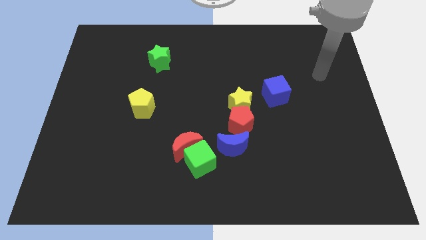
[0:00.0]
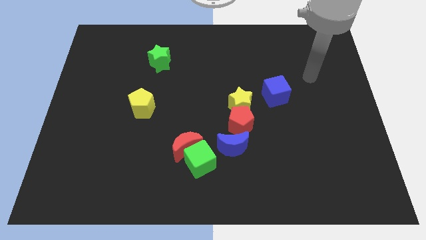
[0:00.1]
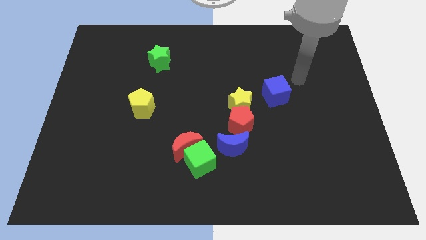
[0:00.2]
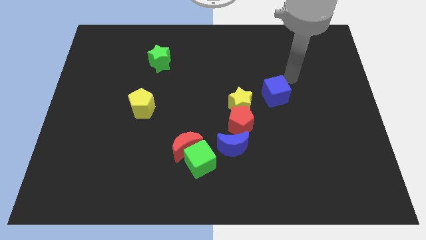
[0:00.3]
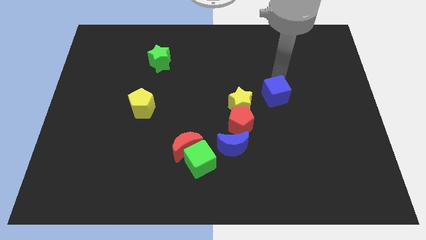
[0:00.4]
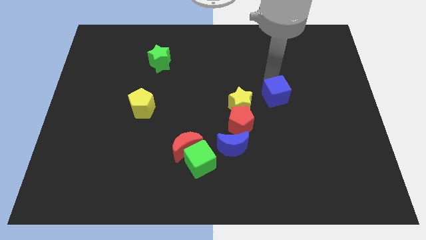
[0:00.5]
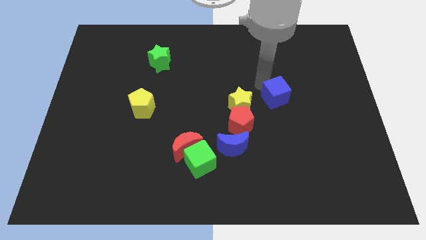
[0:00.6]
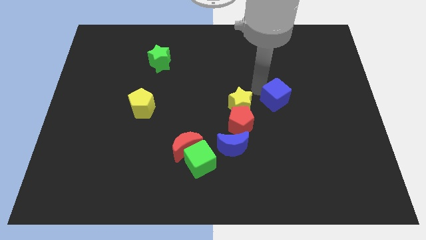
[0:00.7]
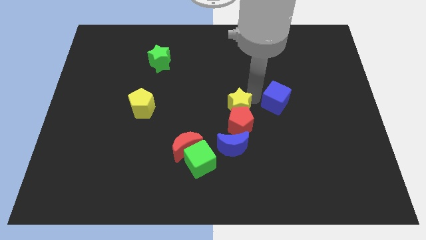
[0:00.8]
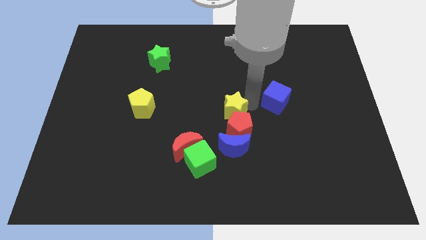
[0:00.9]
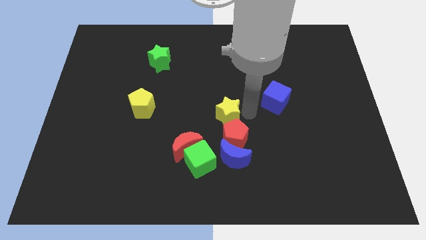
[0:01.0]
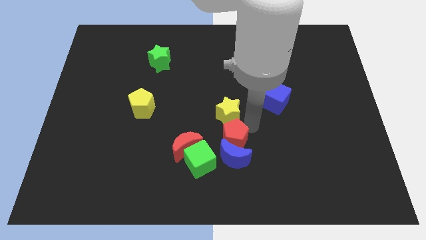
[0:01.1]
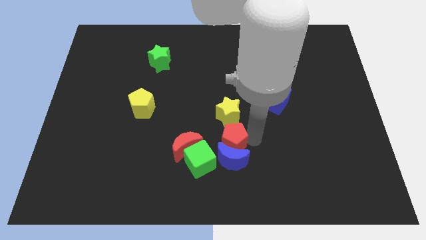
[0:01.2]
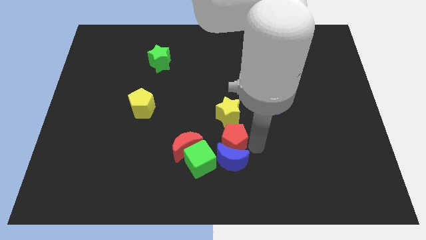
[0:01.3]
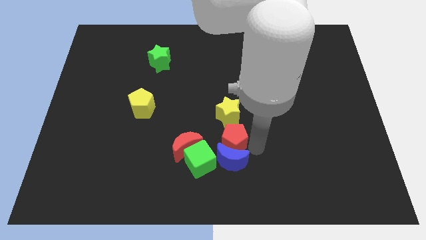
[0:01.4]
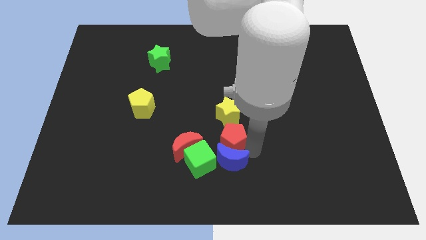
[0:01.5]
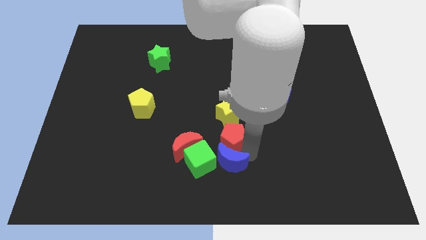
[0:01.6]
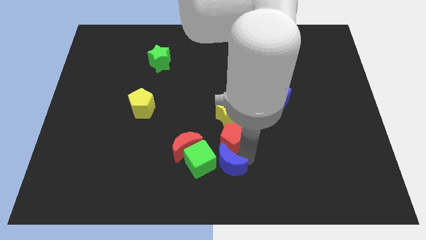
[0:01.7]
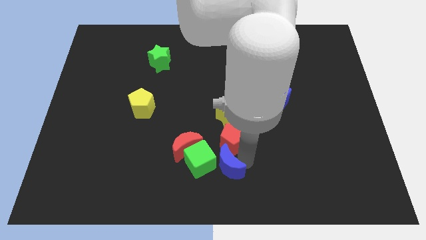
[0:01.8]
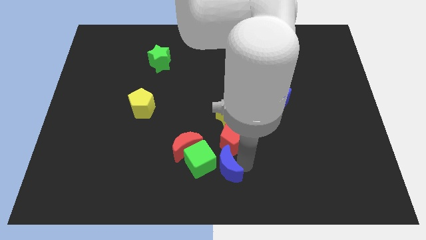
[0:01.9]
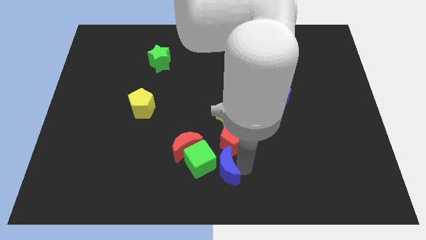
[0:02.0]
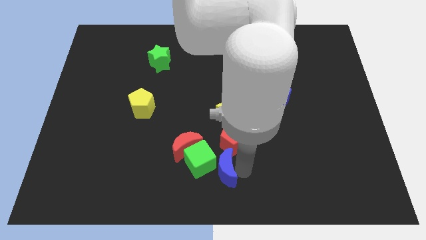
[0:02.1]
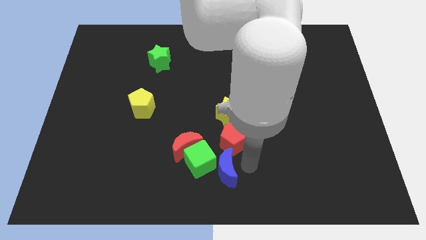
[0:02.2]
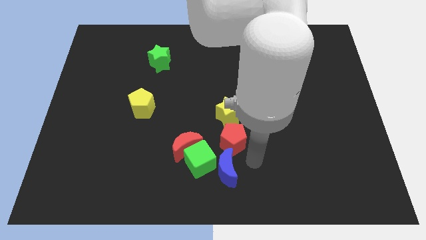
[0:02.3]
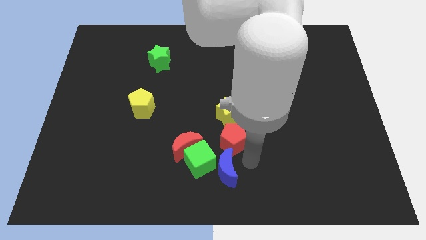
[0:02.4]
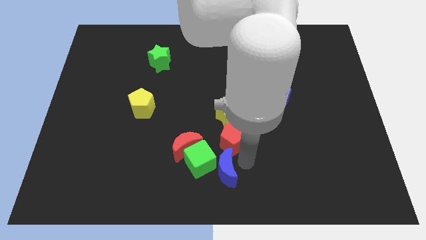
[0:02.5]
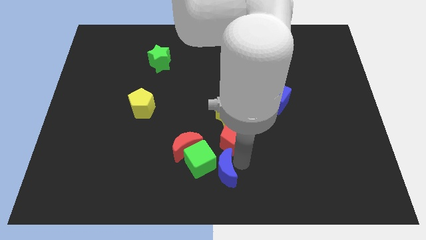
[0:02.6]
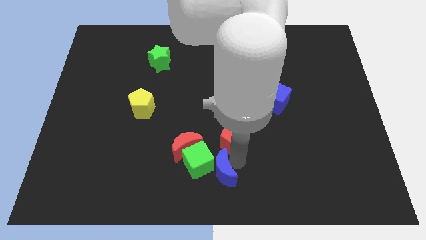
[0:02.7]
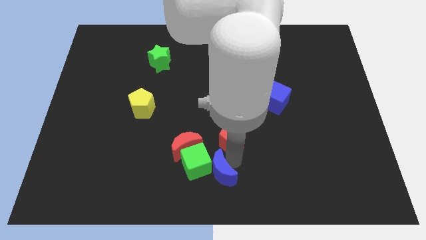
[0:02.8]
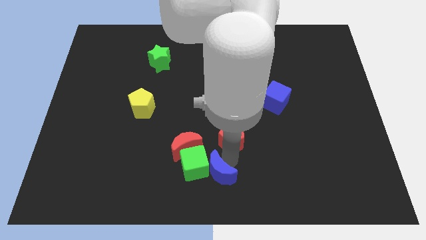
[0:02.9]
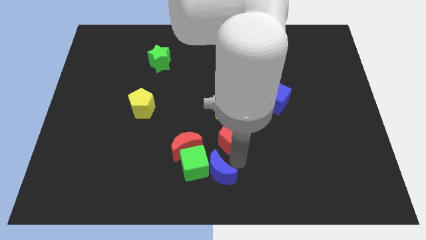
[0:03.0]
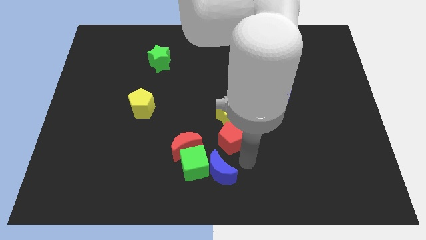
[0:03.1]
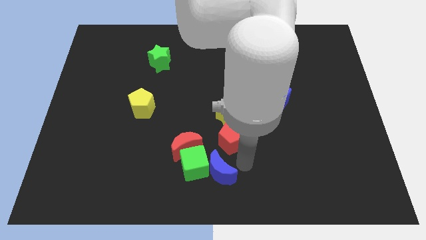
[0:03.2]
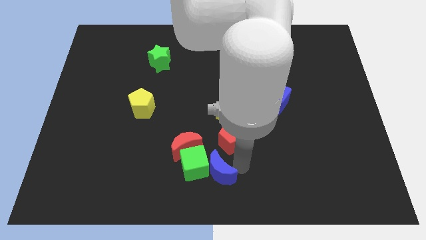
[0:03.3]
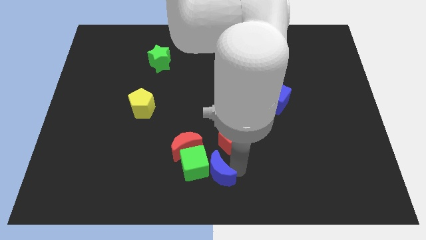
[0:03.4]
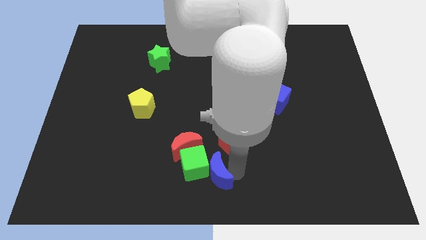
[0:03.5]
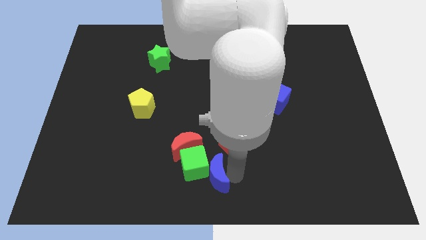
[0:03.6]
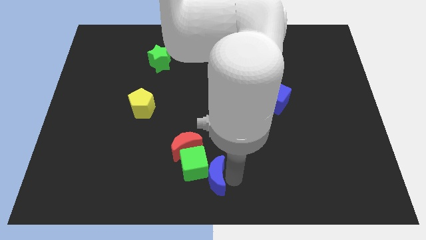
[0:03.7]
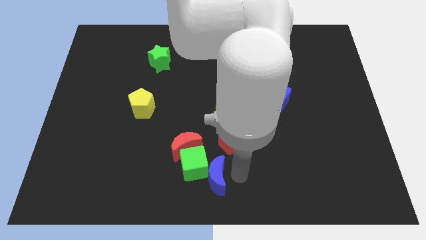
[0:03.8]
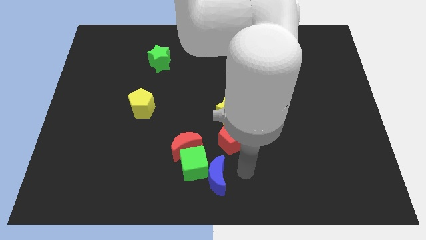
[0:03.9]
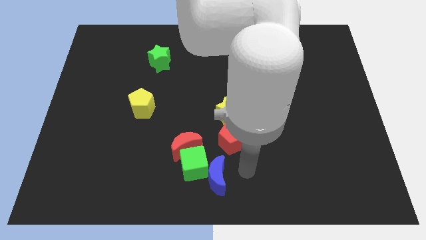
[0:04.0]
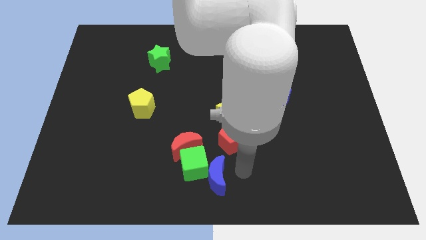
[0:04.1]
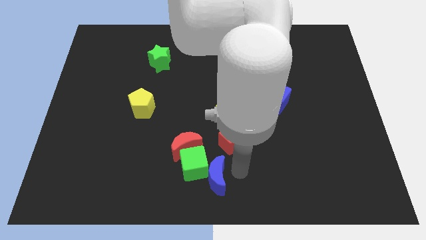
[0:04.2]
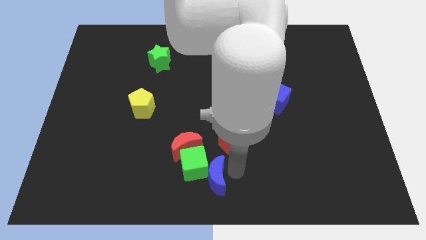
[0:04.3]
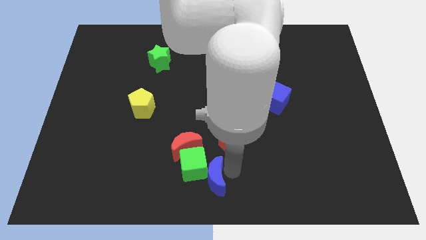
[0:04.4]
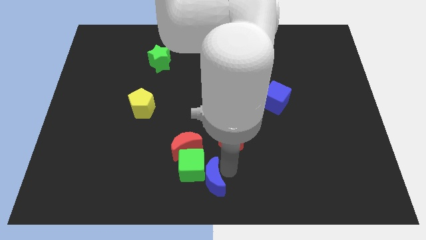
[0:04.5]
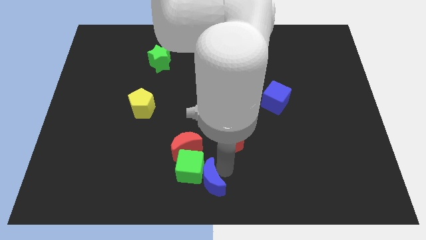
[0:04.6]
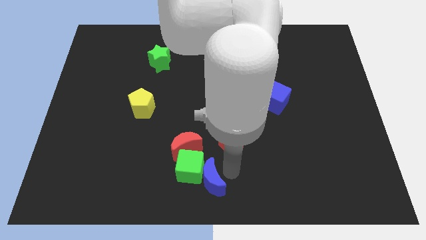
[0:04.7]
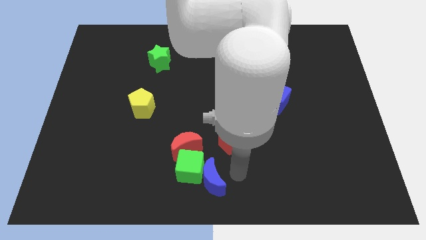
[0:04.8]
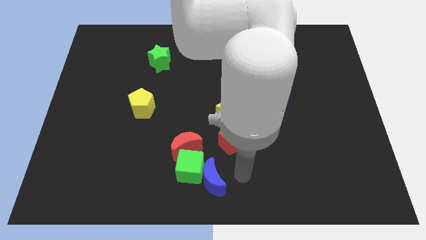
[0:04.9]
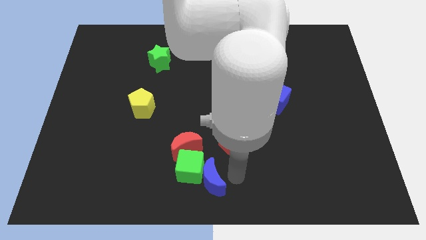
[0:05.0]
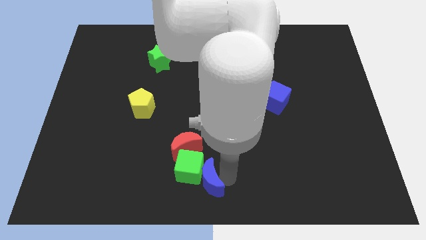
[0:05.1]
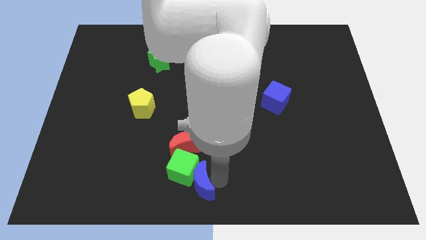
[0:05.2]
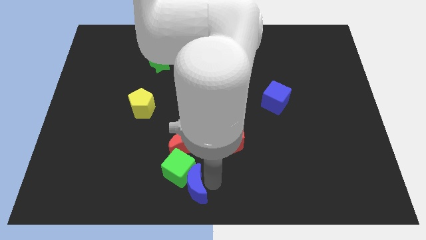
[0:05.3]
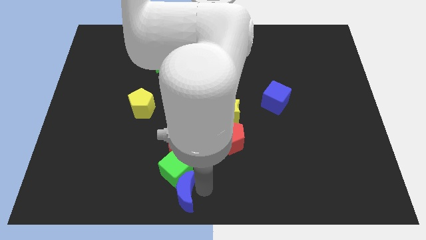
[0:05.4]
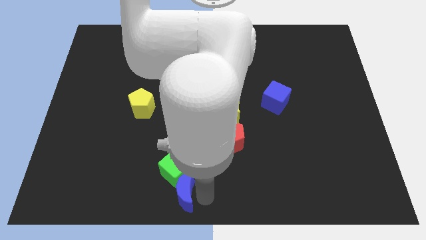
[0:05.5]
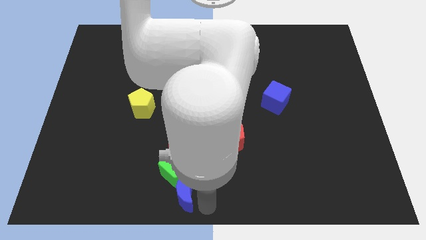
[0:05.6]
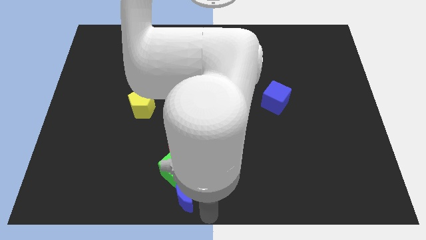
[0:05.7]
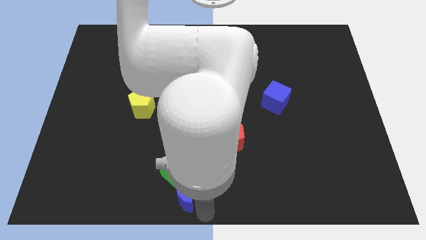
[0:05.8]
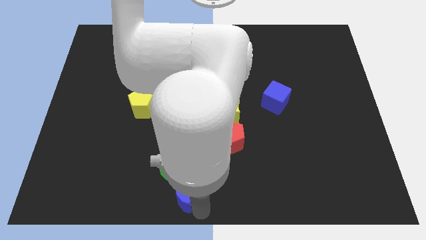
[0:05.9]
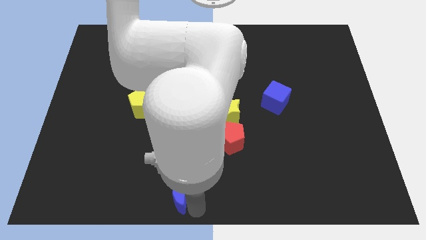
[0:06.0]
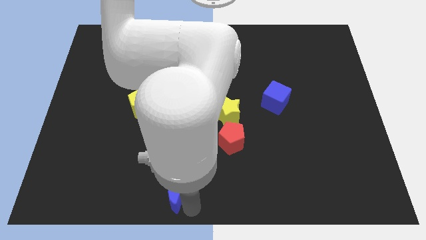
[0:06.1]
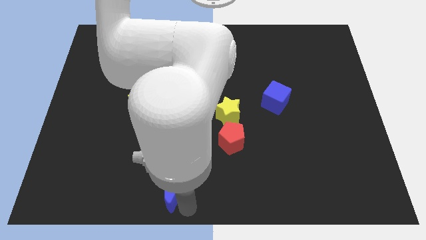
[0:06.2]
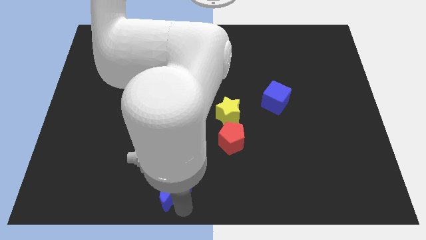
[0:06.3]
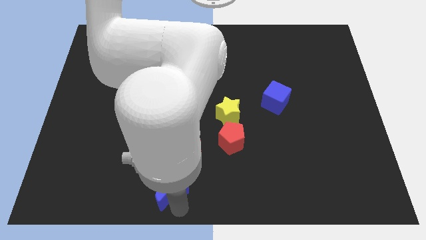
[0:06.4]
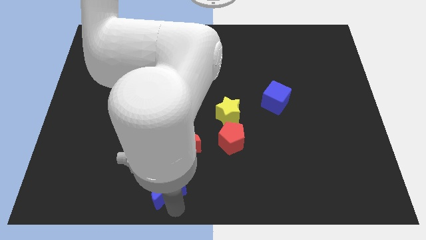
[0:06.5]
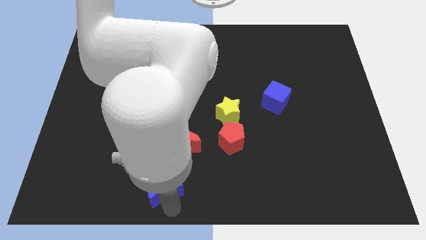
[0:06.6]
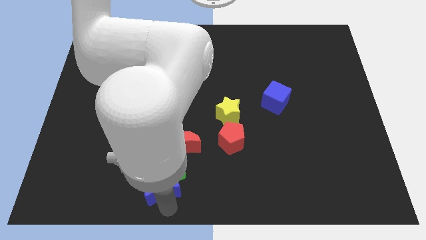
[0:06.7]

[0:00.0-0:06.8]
put the blue moon to the bottom left of the red moon

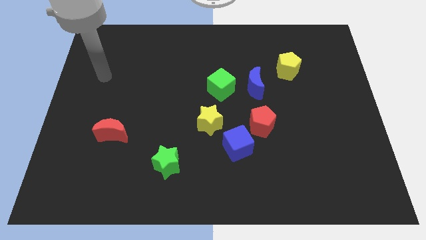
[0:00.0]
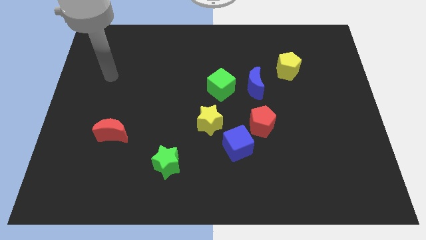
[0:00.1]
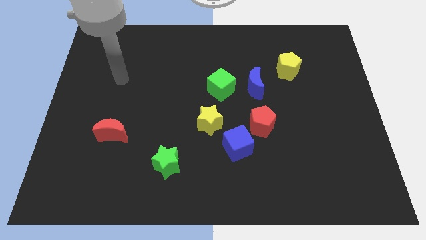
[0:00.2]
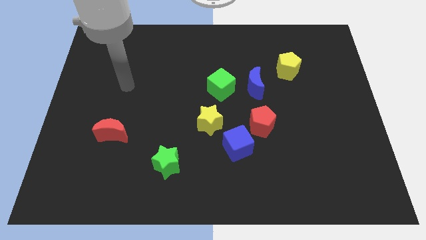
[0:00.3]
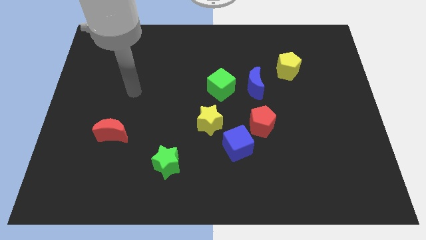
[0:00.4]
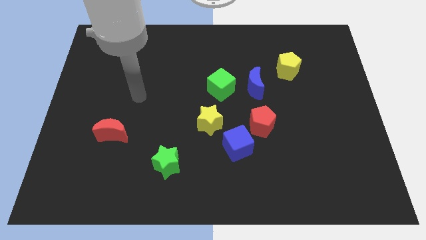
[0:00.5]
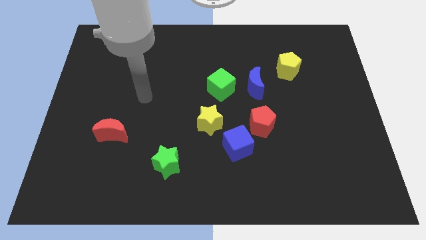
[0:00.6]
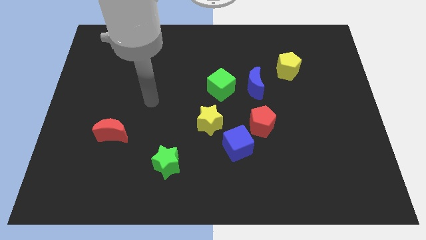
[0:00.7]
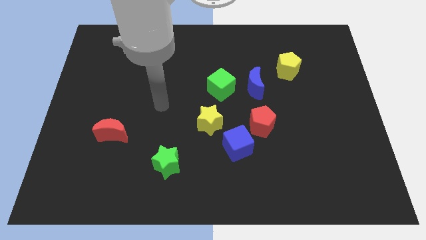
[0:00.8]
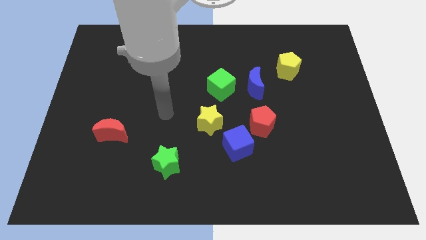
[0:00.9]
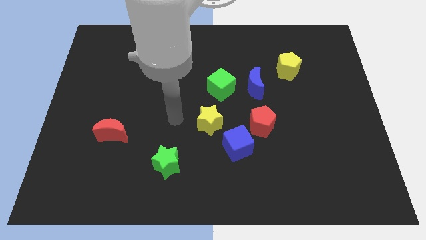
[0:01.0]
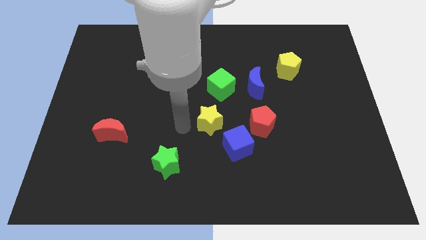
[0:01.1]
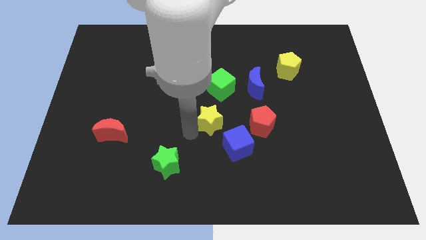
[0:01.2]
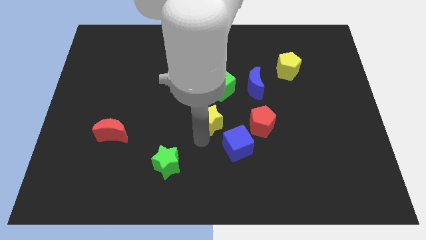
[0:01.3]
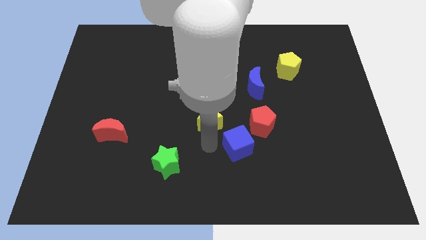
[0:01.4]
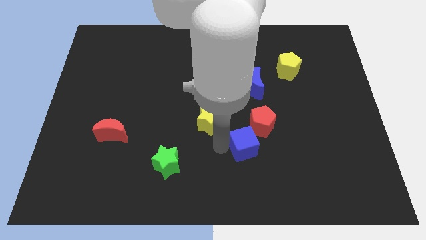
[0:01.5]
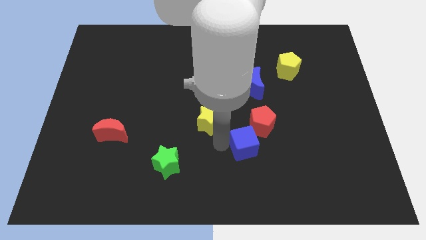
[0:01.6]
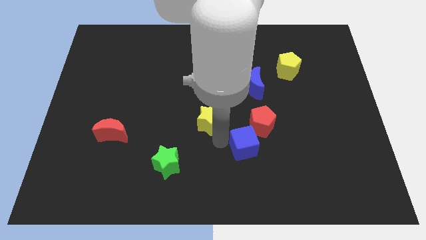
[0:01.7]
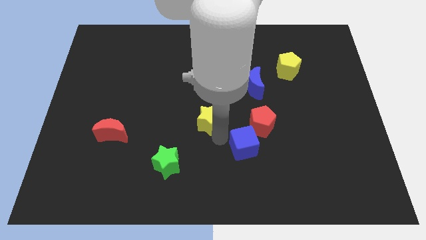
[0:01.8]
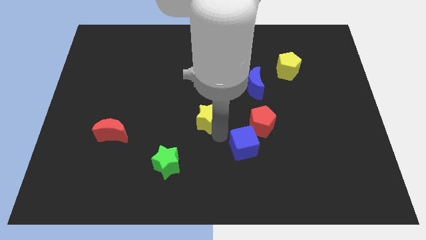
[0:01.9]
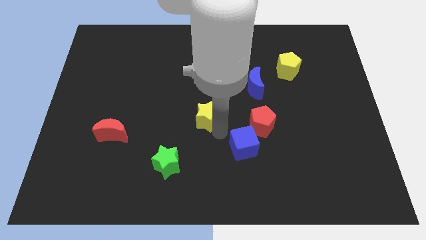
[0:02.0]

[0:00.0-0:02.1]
put the yellow star diagonally down and to the left of the green cube
